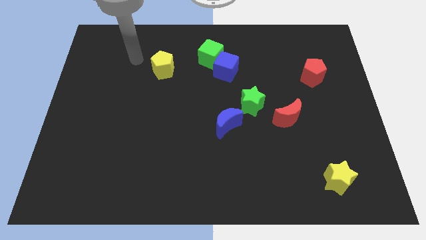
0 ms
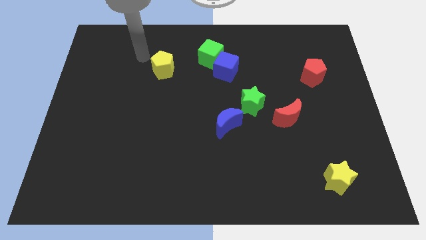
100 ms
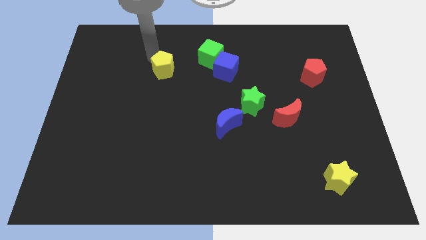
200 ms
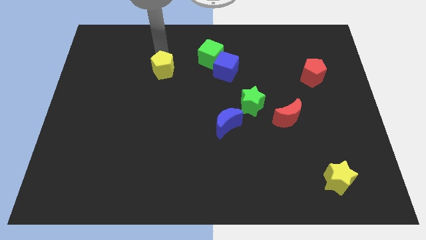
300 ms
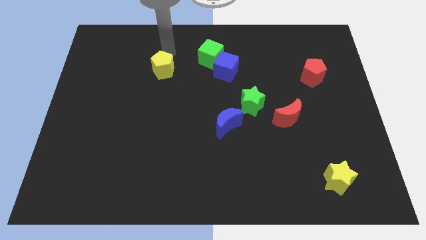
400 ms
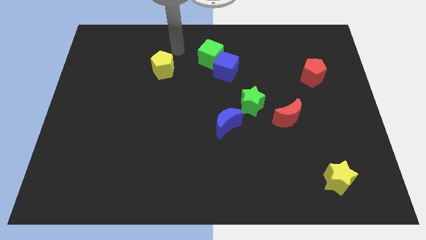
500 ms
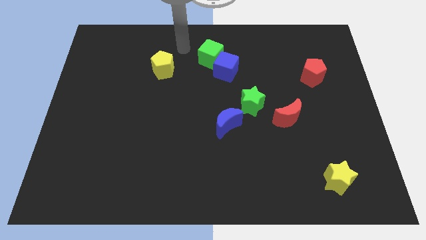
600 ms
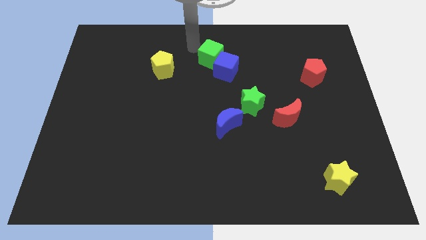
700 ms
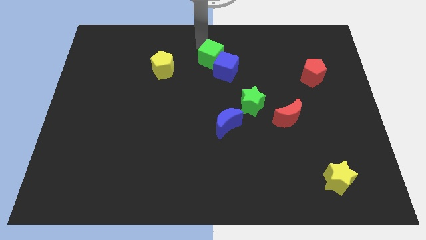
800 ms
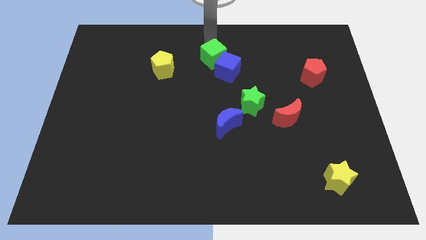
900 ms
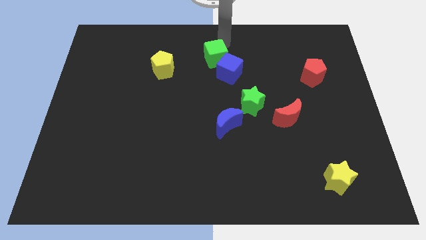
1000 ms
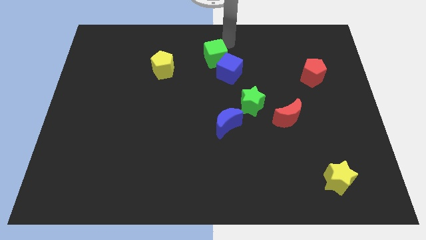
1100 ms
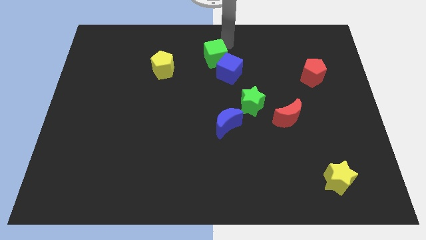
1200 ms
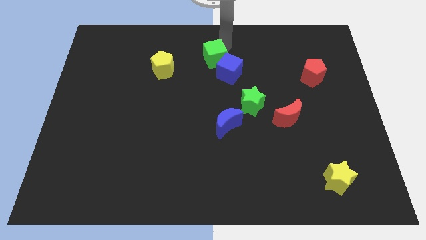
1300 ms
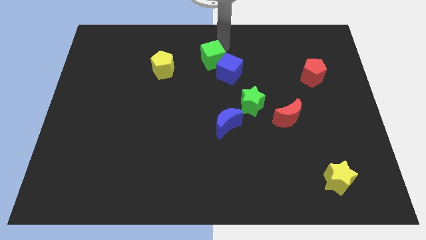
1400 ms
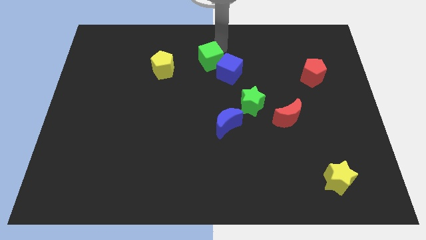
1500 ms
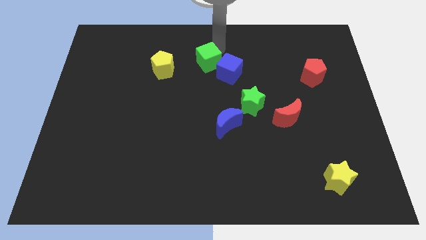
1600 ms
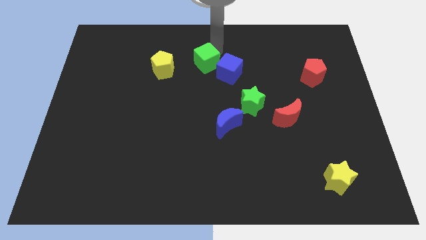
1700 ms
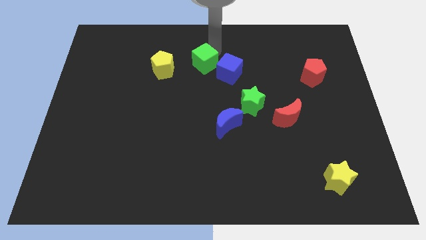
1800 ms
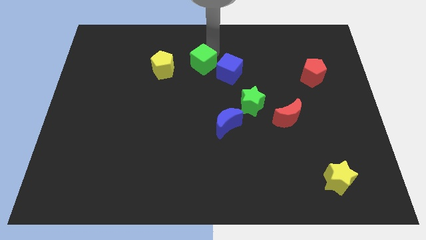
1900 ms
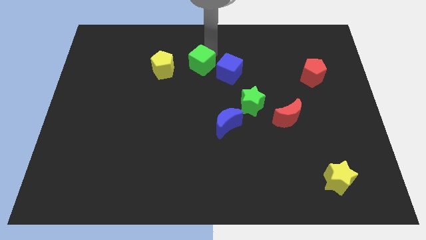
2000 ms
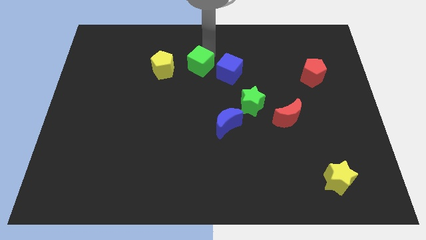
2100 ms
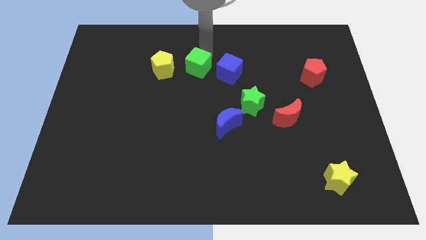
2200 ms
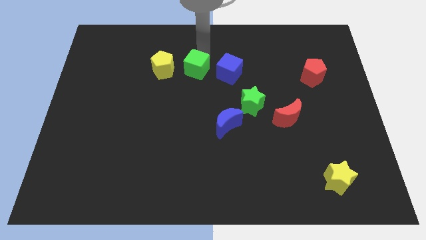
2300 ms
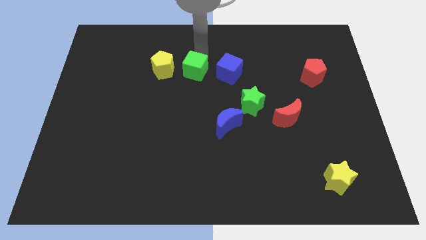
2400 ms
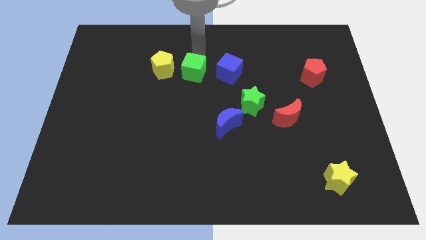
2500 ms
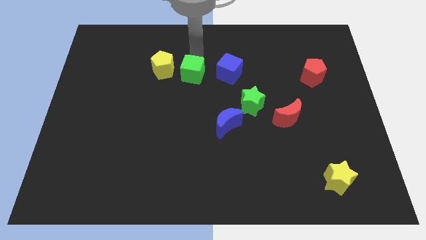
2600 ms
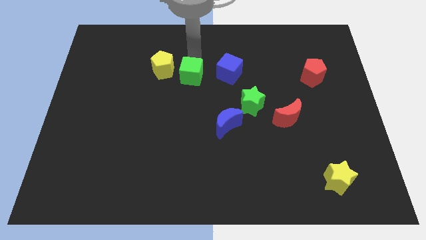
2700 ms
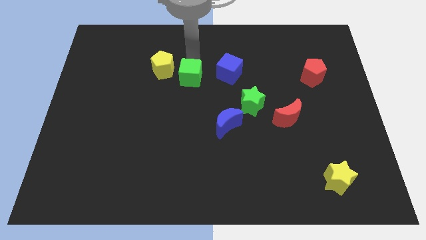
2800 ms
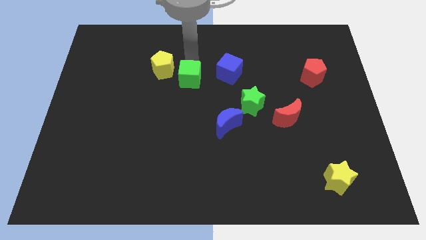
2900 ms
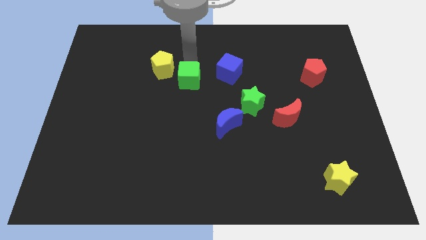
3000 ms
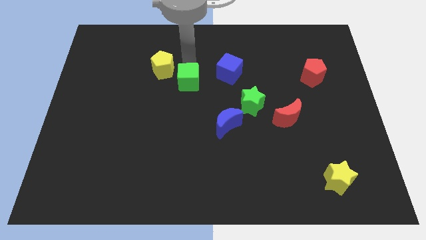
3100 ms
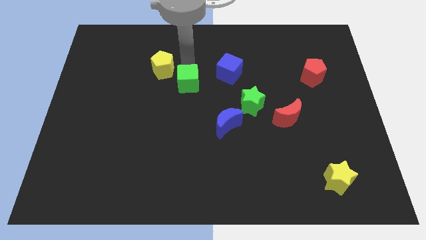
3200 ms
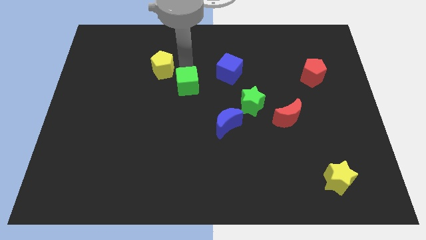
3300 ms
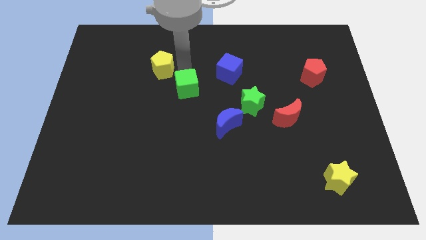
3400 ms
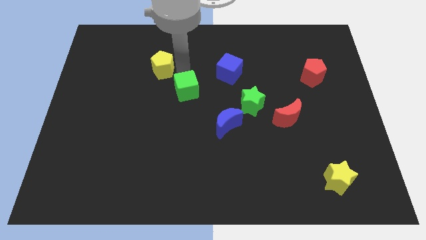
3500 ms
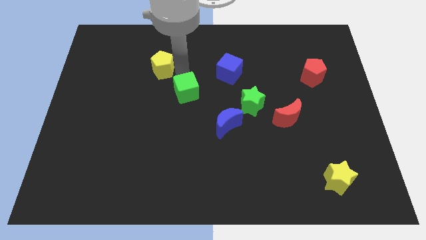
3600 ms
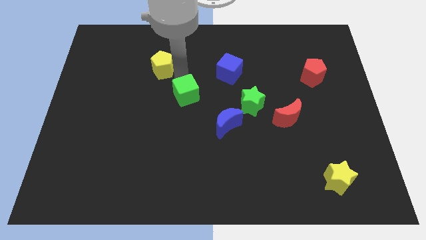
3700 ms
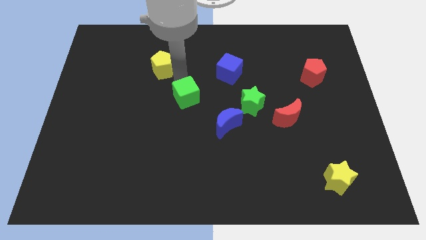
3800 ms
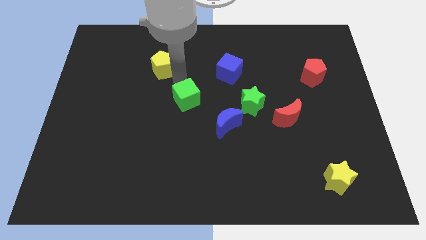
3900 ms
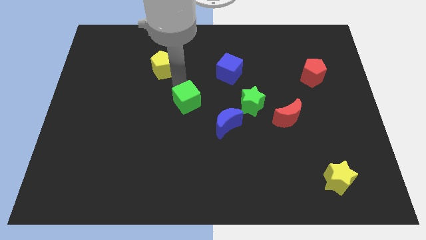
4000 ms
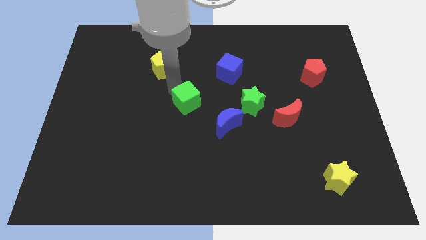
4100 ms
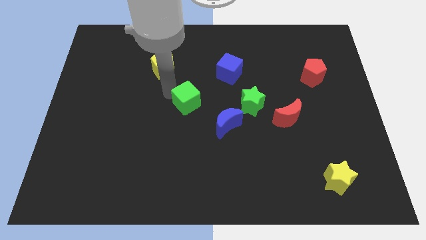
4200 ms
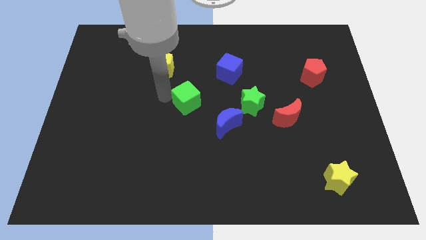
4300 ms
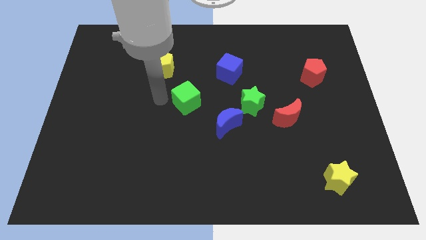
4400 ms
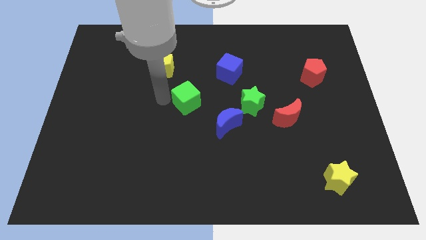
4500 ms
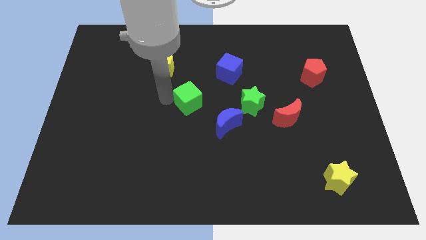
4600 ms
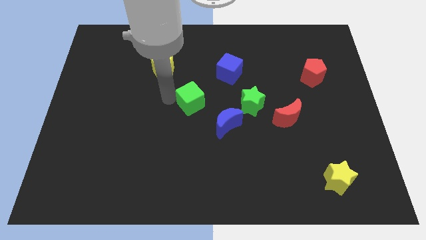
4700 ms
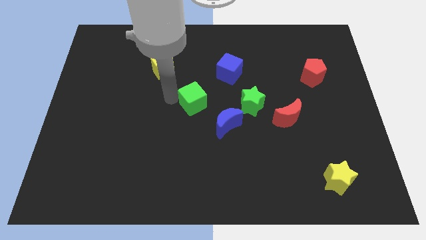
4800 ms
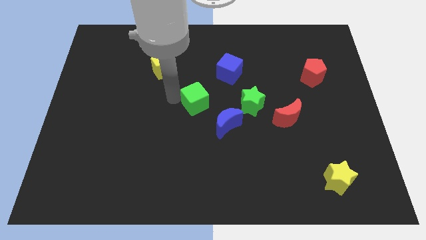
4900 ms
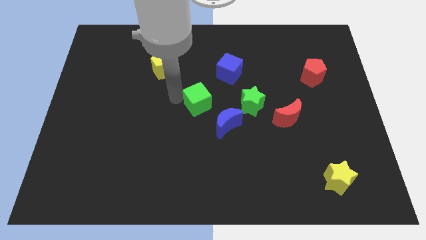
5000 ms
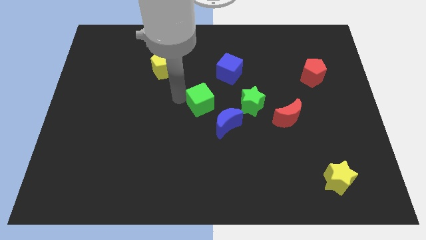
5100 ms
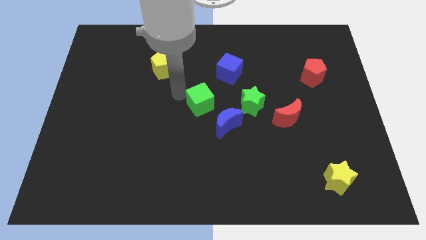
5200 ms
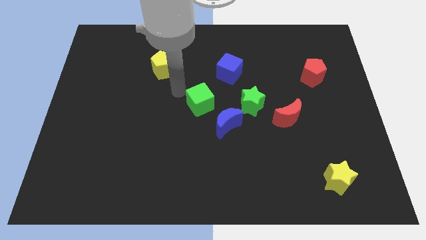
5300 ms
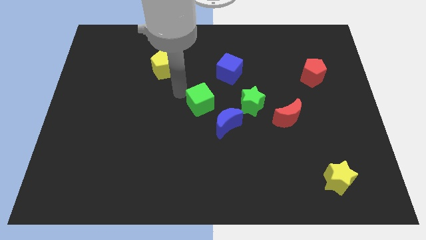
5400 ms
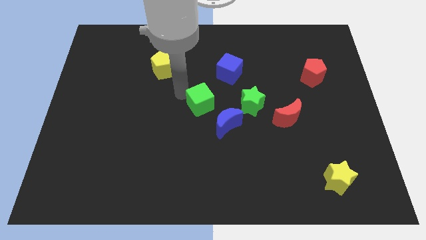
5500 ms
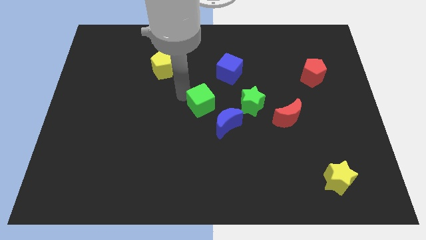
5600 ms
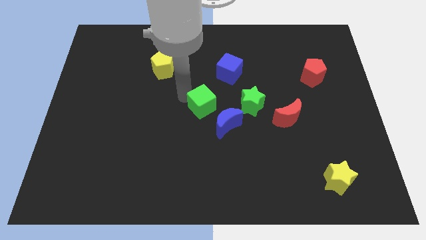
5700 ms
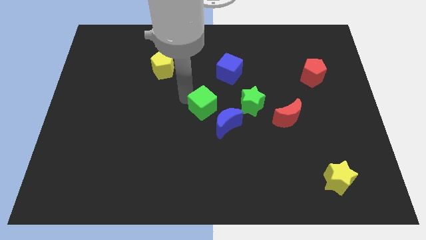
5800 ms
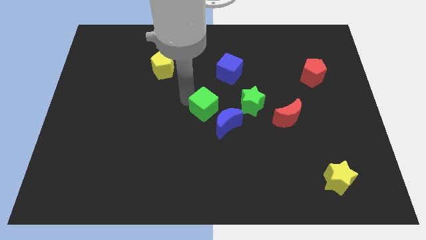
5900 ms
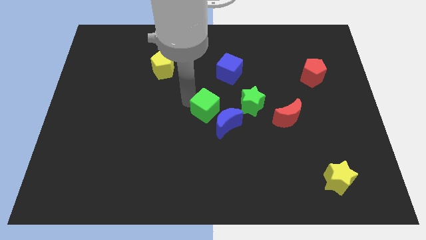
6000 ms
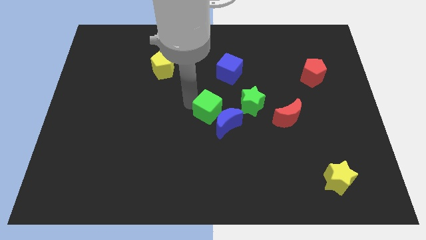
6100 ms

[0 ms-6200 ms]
slide the green cube towards the blue moon

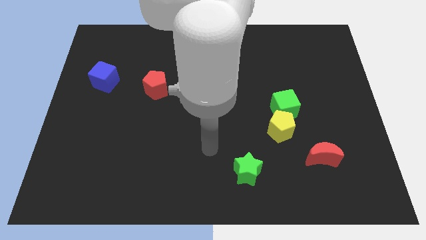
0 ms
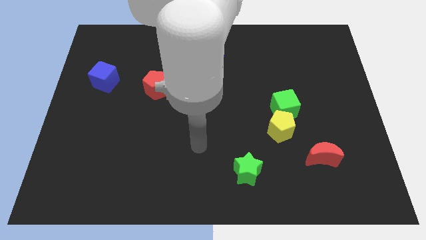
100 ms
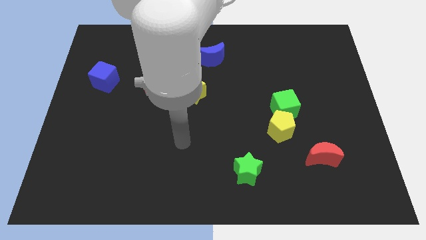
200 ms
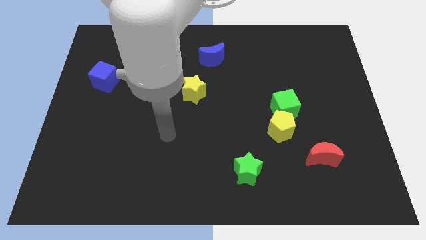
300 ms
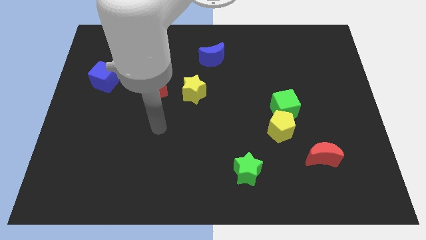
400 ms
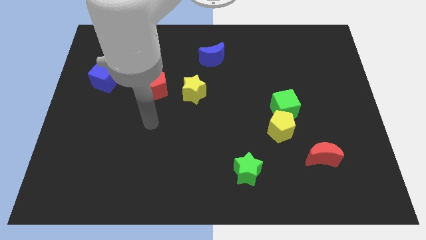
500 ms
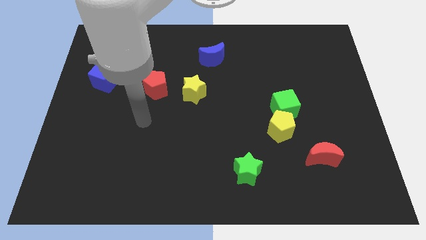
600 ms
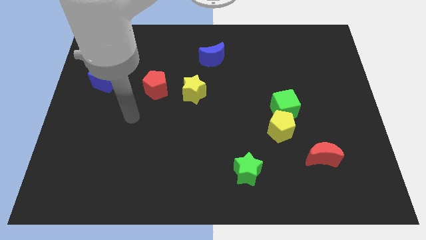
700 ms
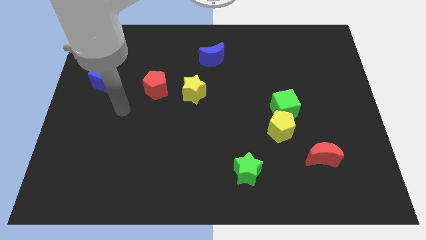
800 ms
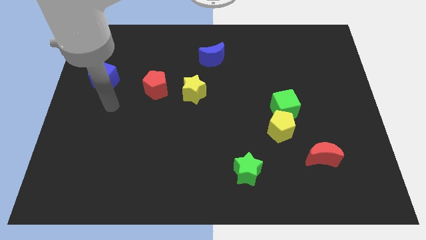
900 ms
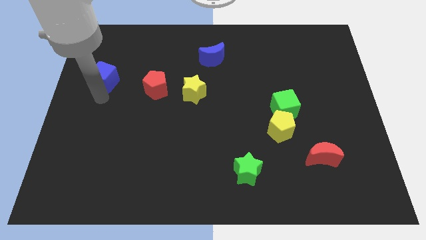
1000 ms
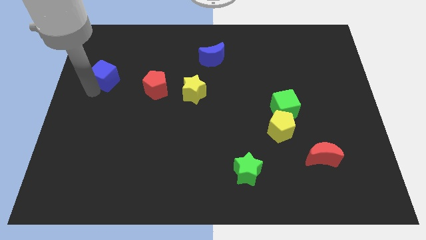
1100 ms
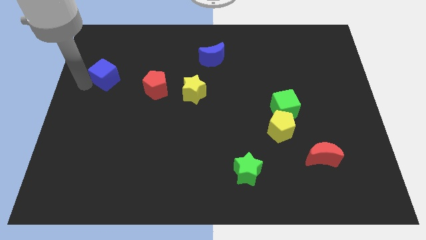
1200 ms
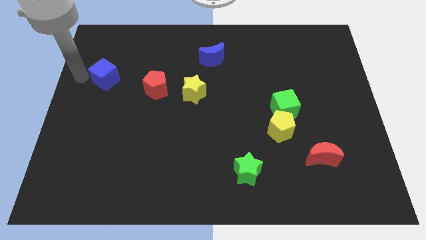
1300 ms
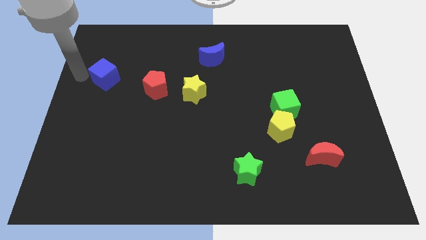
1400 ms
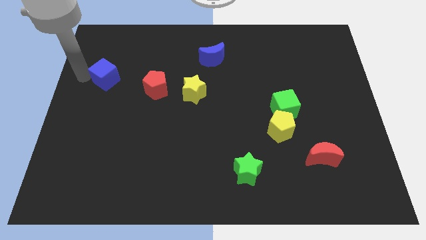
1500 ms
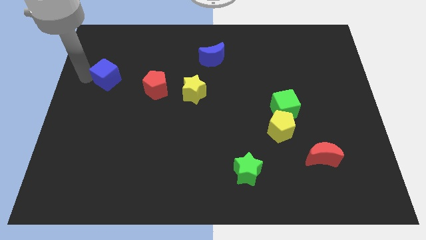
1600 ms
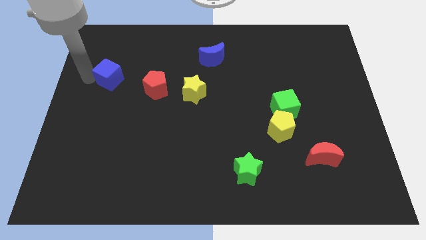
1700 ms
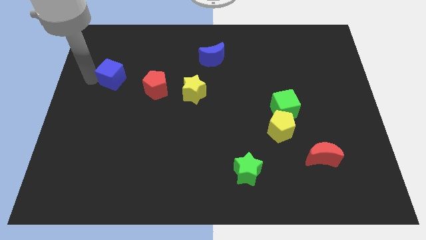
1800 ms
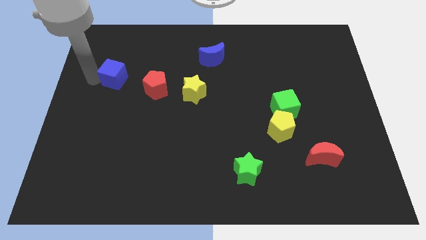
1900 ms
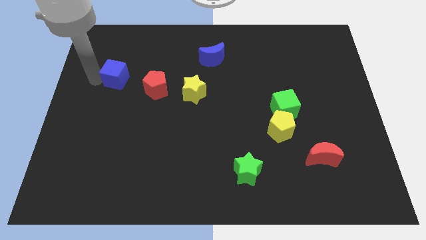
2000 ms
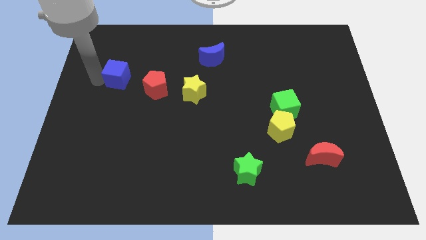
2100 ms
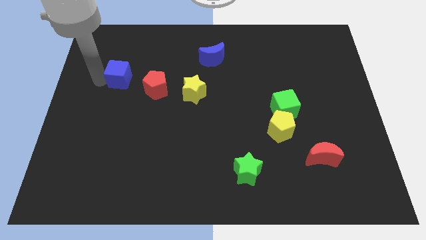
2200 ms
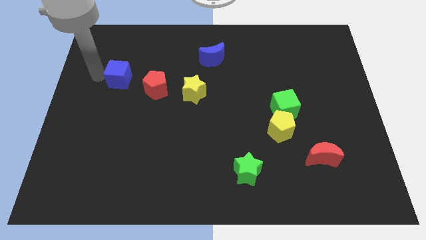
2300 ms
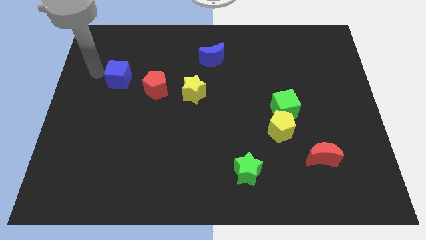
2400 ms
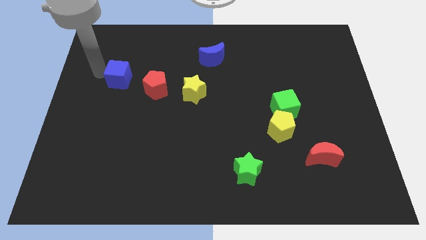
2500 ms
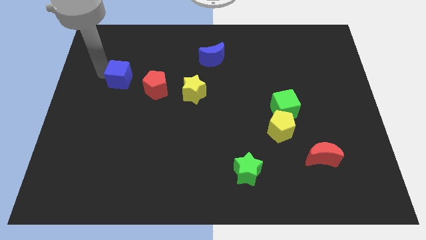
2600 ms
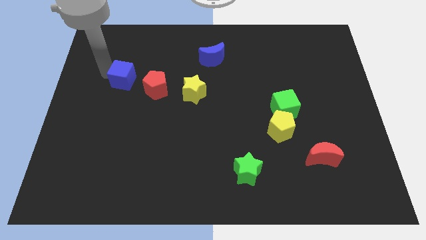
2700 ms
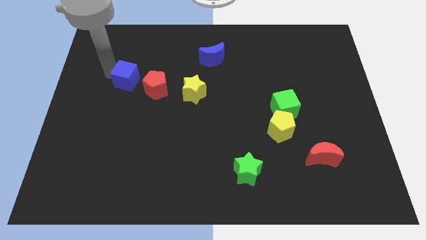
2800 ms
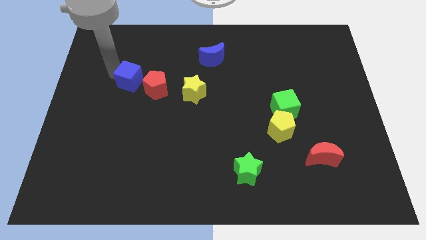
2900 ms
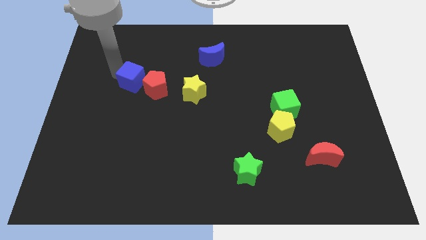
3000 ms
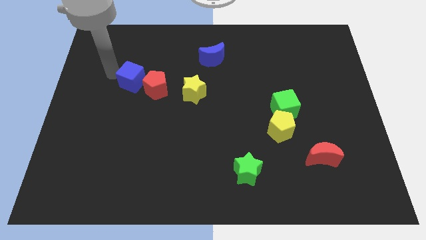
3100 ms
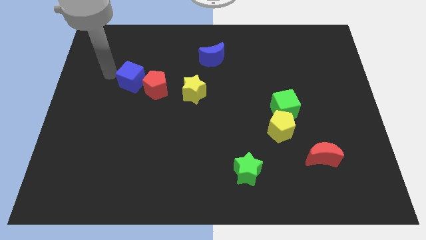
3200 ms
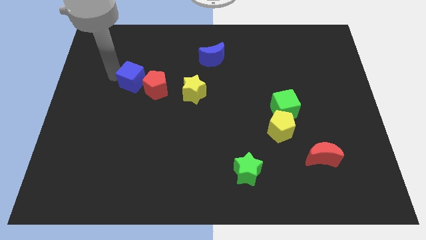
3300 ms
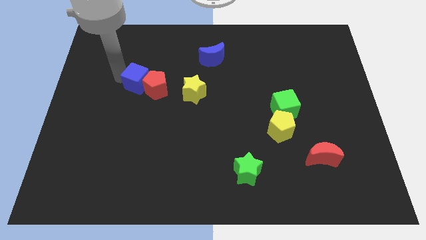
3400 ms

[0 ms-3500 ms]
push the blue cube towards the red pentagon
